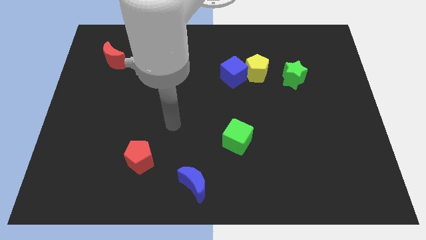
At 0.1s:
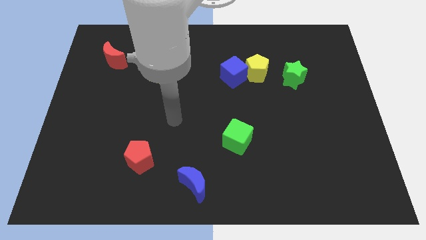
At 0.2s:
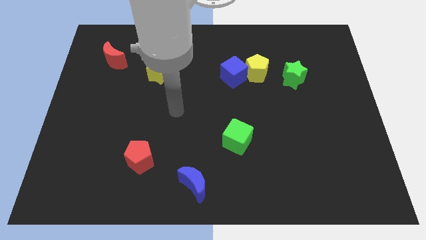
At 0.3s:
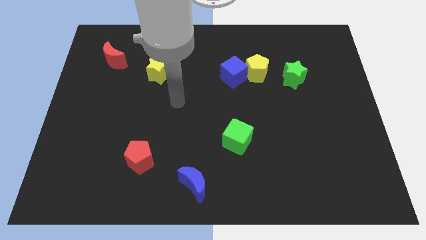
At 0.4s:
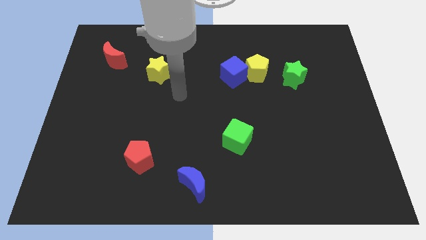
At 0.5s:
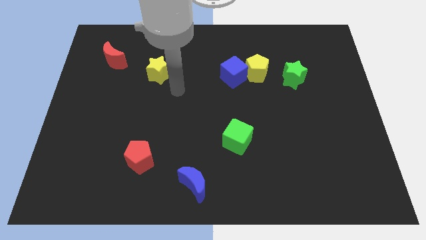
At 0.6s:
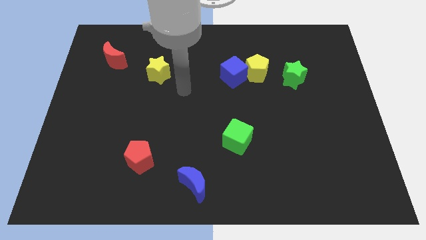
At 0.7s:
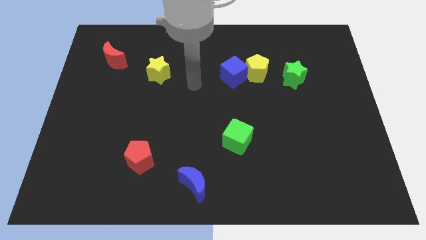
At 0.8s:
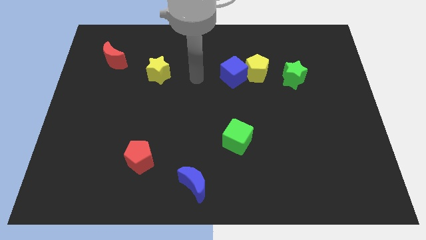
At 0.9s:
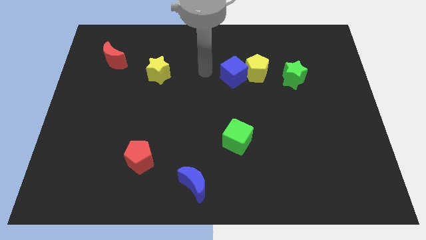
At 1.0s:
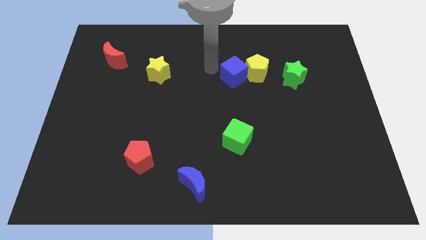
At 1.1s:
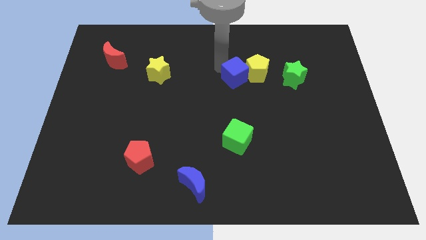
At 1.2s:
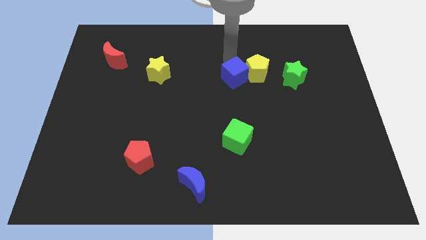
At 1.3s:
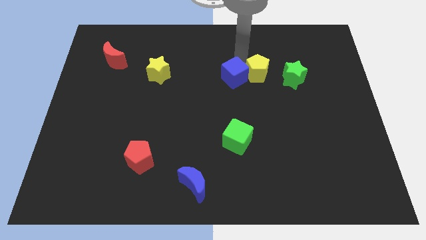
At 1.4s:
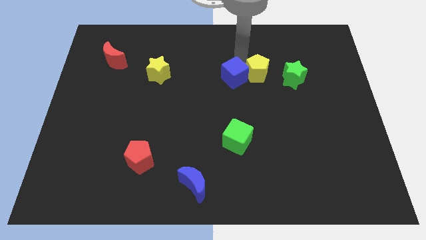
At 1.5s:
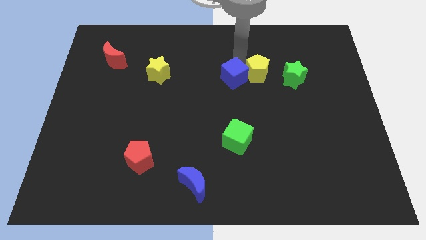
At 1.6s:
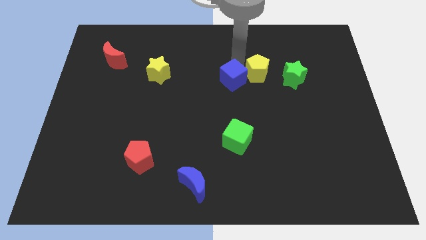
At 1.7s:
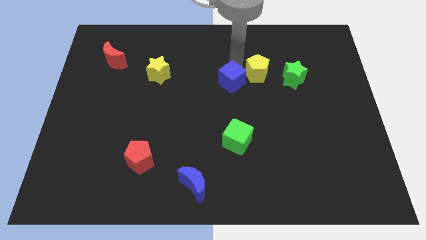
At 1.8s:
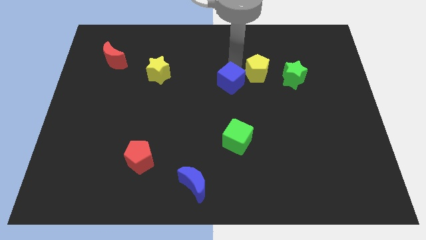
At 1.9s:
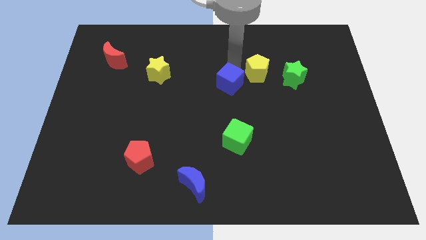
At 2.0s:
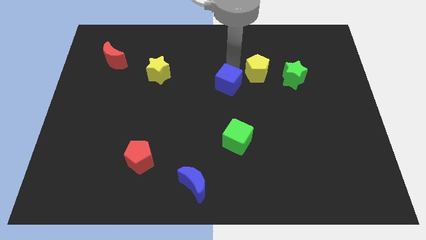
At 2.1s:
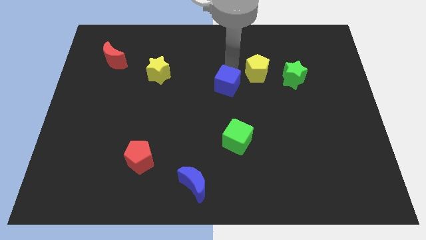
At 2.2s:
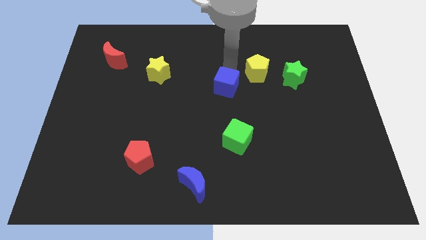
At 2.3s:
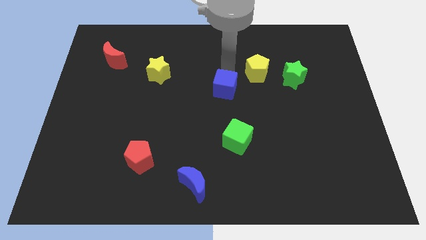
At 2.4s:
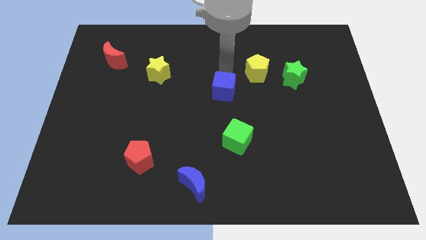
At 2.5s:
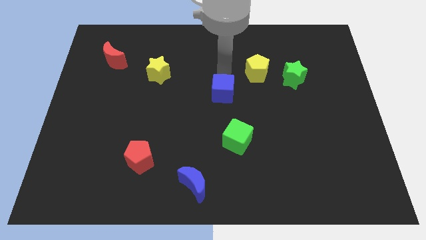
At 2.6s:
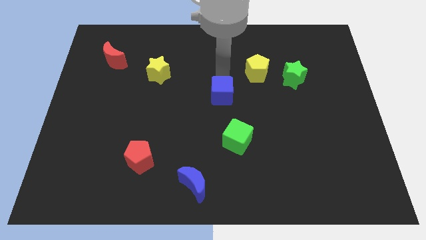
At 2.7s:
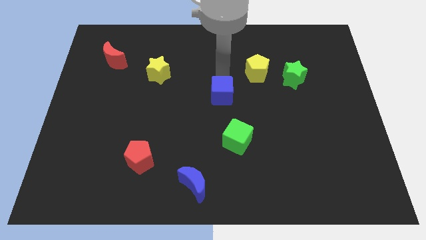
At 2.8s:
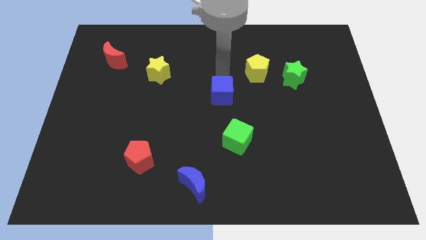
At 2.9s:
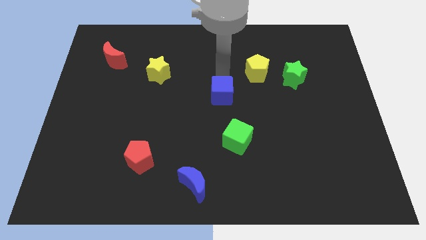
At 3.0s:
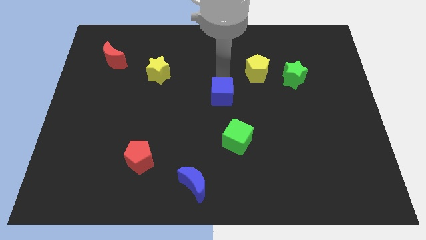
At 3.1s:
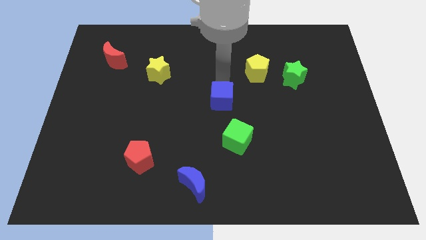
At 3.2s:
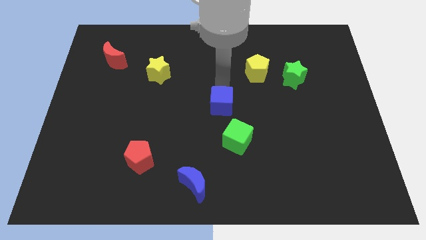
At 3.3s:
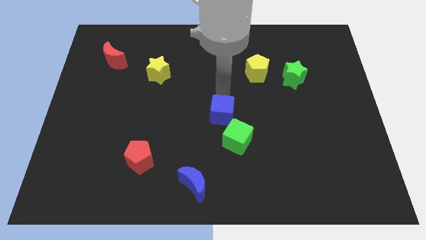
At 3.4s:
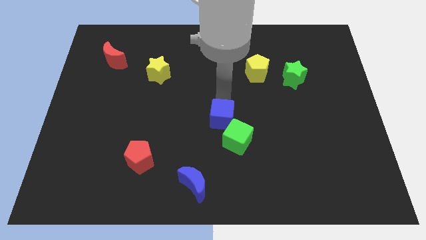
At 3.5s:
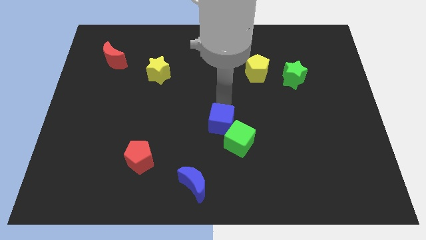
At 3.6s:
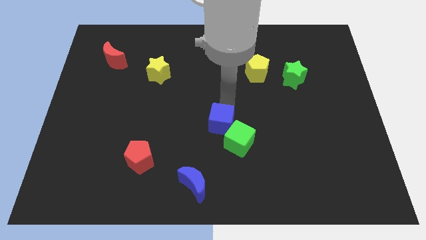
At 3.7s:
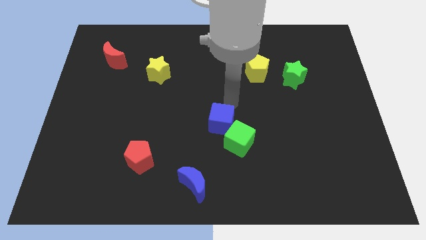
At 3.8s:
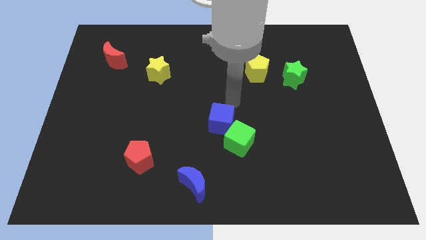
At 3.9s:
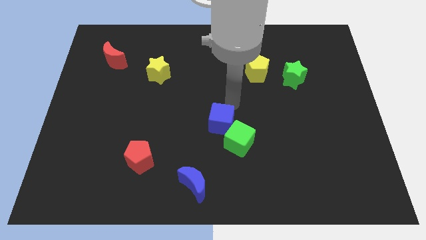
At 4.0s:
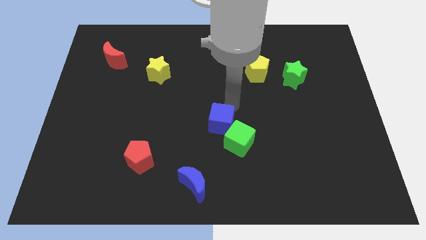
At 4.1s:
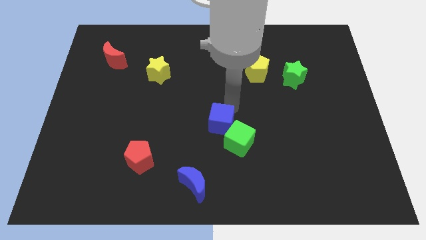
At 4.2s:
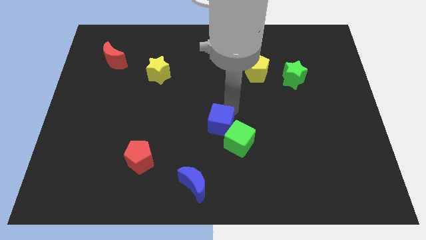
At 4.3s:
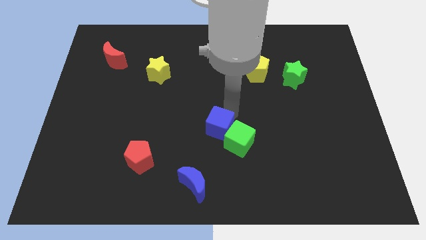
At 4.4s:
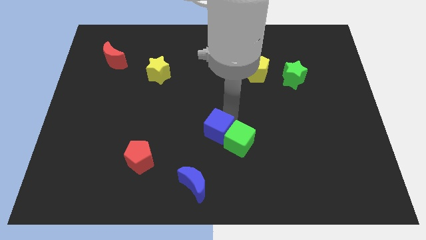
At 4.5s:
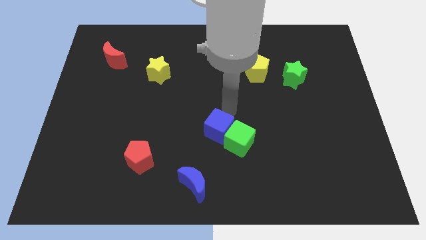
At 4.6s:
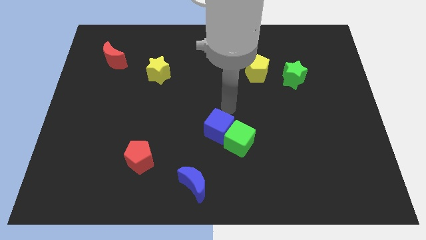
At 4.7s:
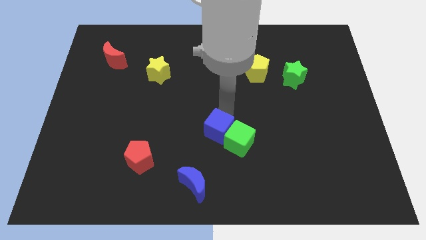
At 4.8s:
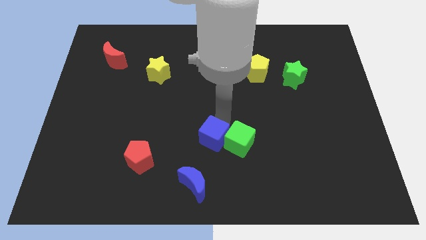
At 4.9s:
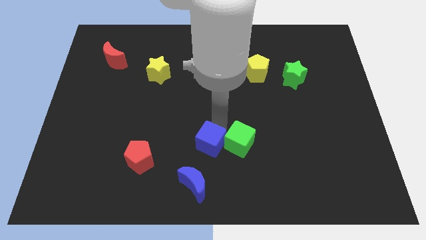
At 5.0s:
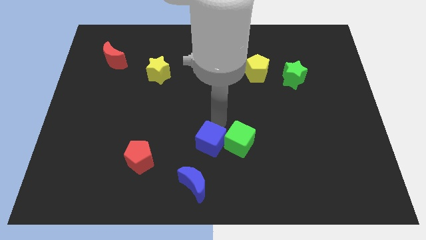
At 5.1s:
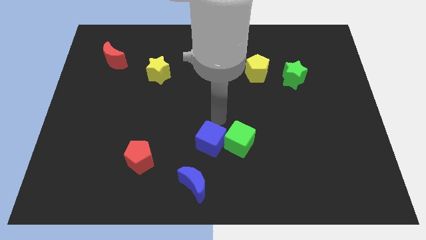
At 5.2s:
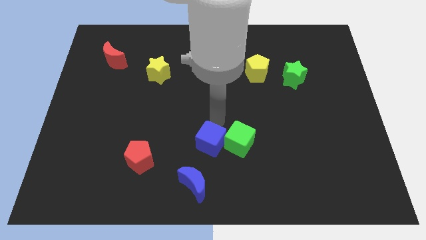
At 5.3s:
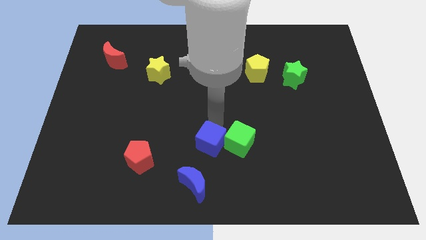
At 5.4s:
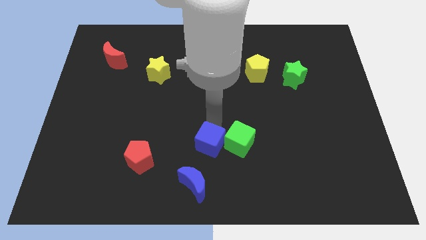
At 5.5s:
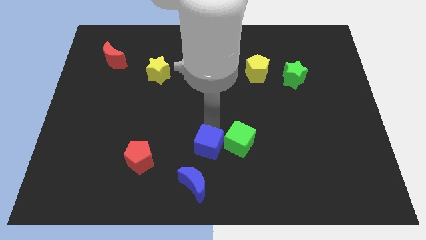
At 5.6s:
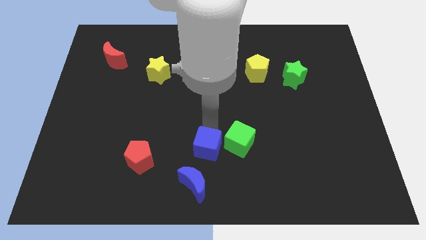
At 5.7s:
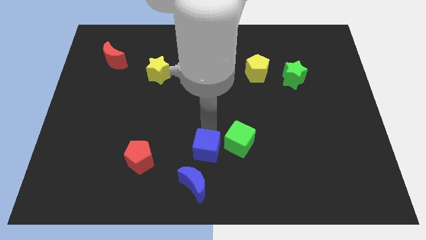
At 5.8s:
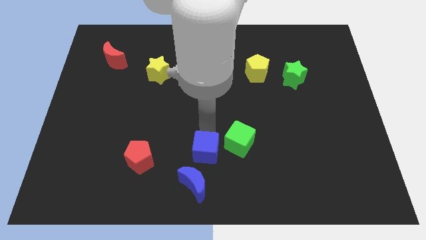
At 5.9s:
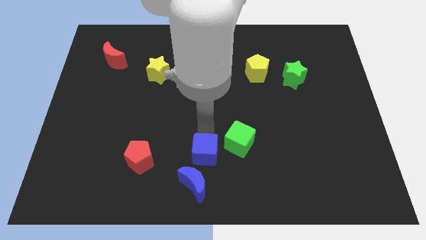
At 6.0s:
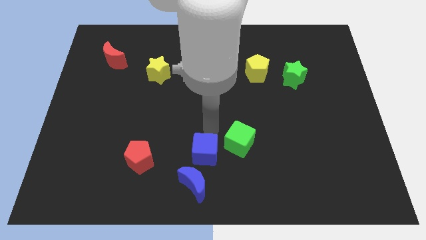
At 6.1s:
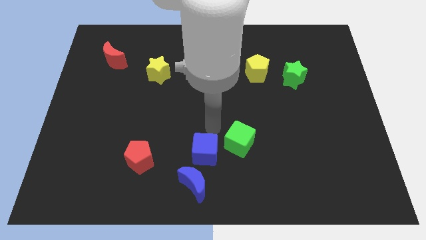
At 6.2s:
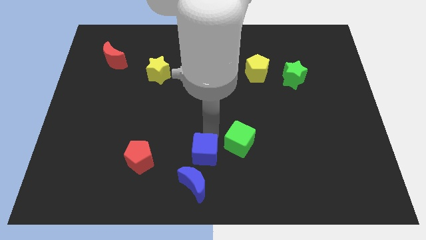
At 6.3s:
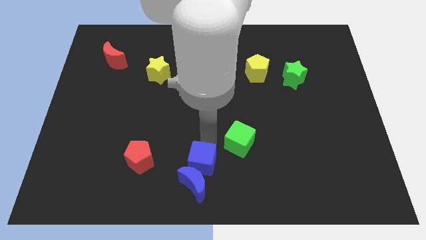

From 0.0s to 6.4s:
slide the blue cube to the blue moon
